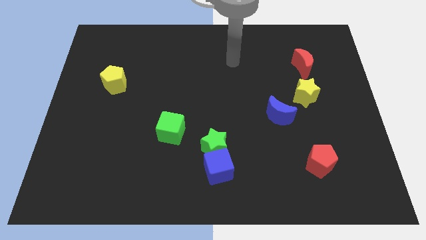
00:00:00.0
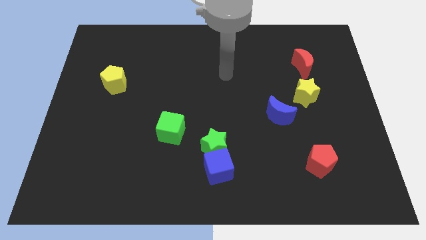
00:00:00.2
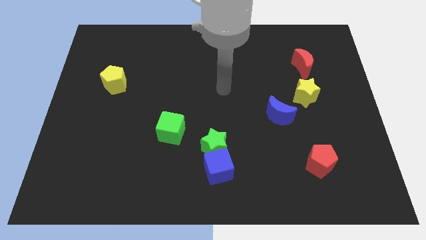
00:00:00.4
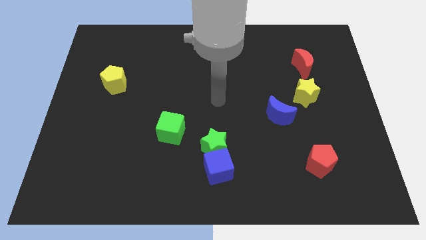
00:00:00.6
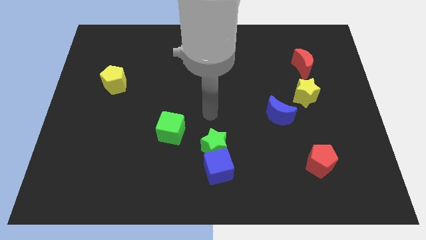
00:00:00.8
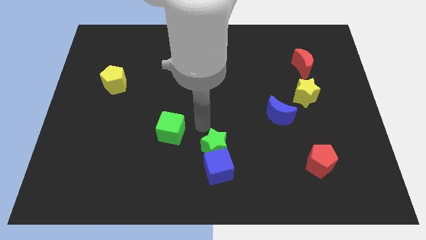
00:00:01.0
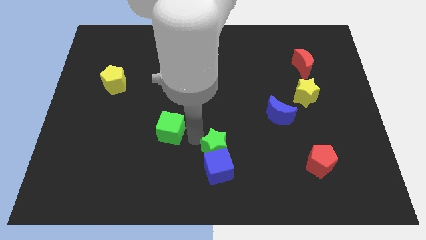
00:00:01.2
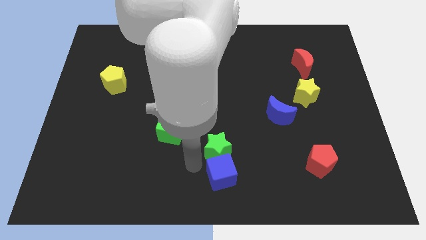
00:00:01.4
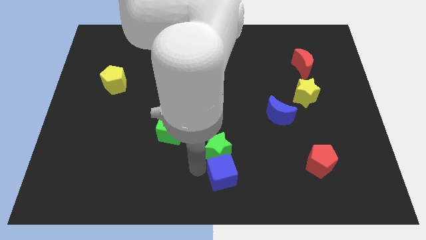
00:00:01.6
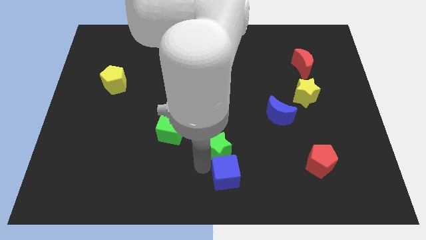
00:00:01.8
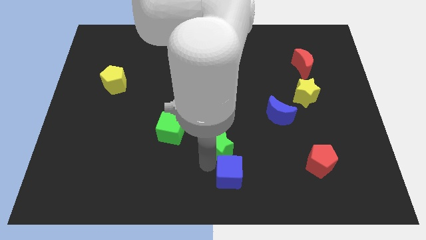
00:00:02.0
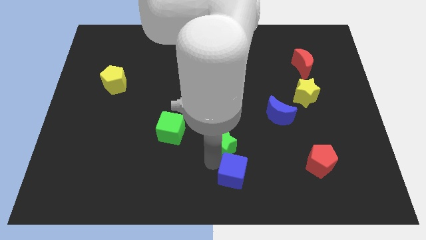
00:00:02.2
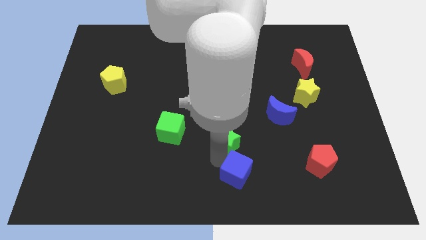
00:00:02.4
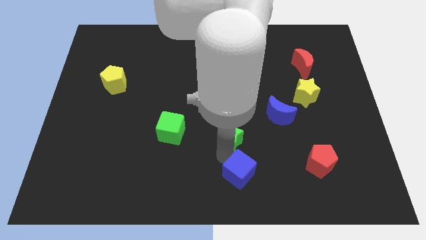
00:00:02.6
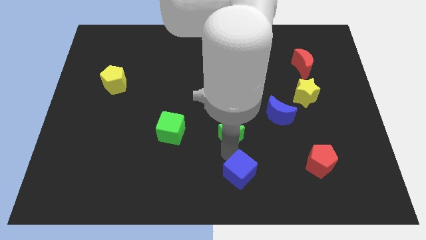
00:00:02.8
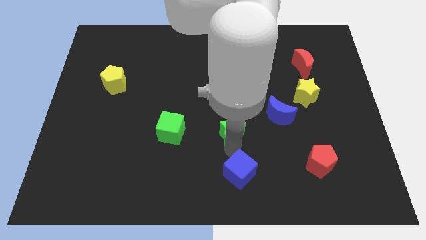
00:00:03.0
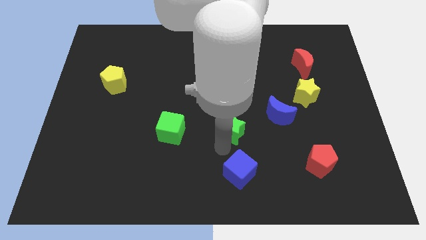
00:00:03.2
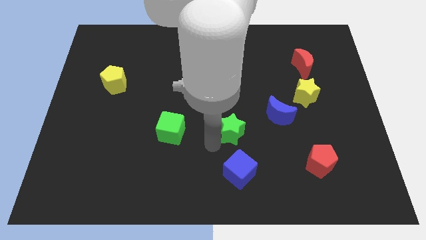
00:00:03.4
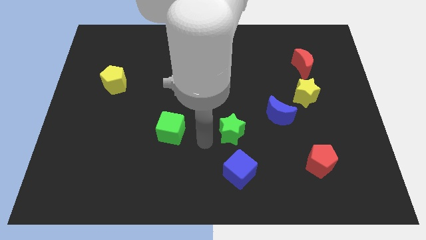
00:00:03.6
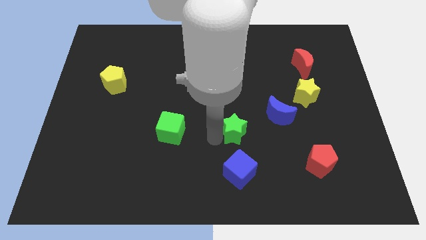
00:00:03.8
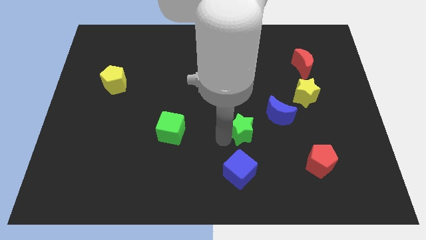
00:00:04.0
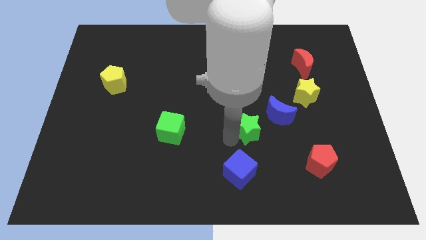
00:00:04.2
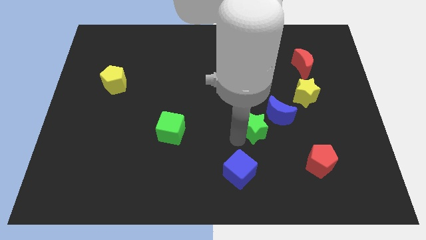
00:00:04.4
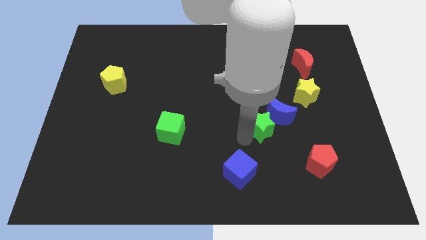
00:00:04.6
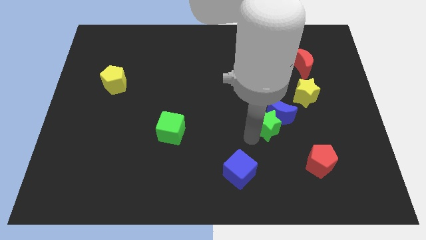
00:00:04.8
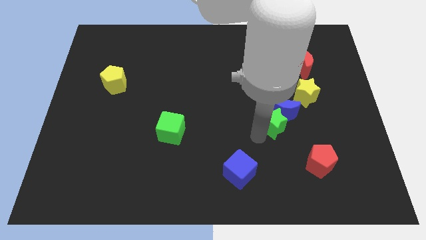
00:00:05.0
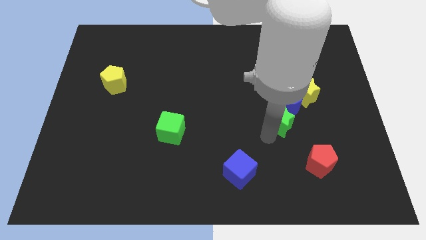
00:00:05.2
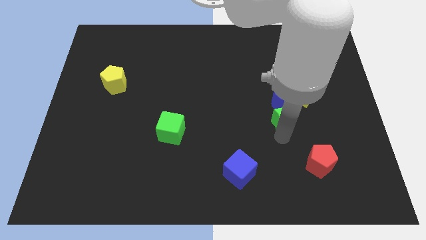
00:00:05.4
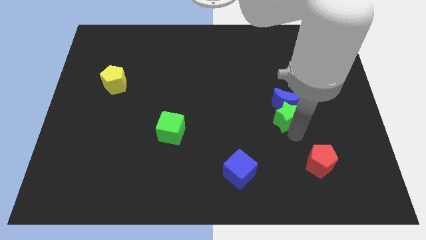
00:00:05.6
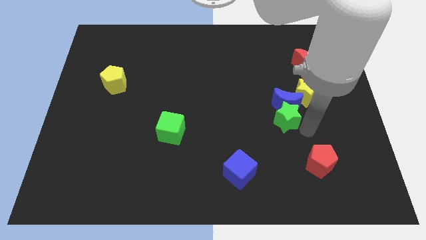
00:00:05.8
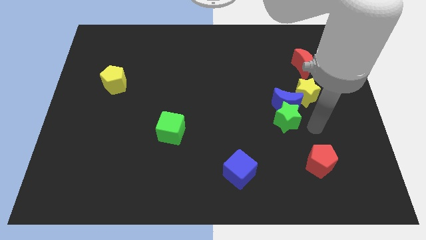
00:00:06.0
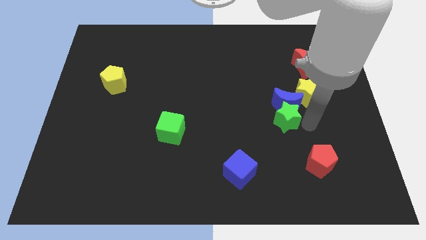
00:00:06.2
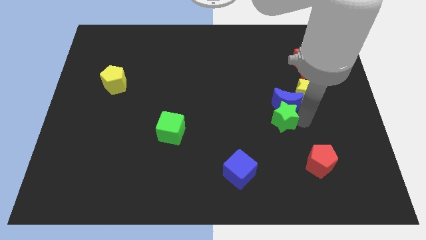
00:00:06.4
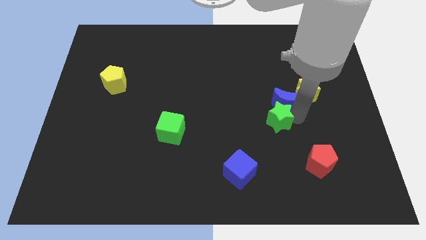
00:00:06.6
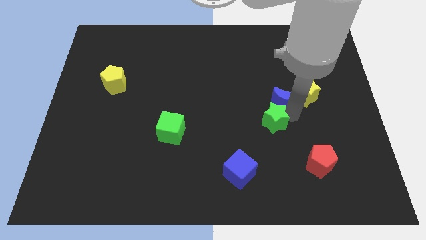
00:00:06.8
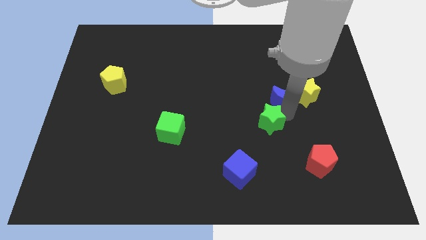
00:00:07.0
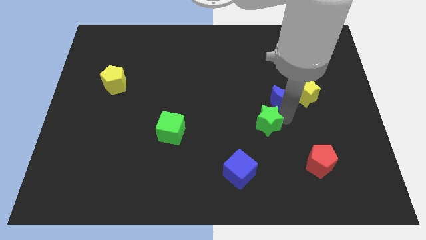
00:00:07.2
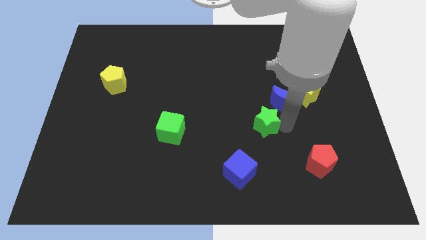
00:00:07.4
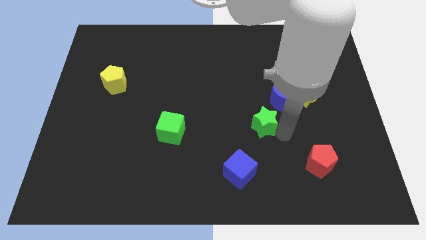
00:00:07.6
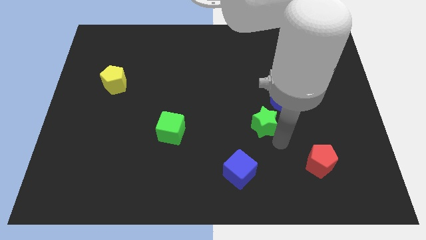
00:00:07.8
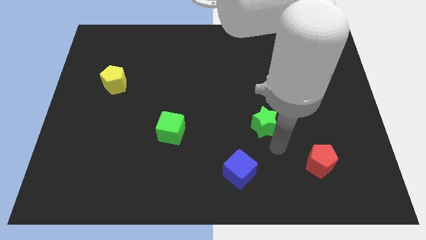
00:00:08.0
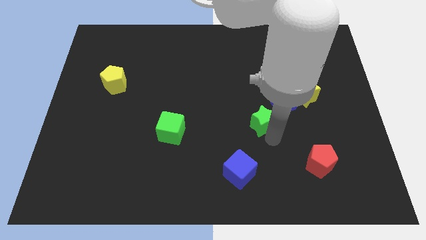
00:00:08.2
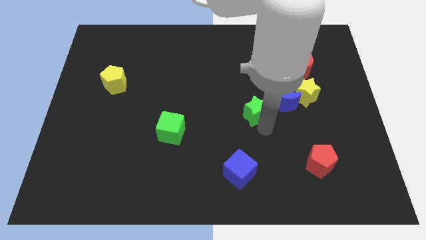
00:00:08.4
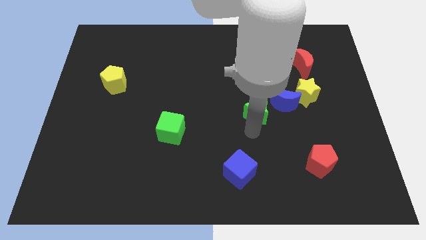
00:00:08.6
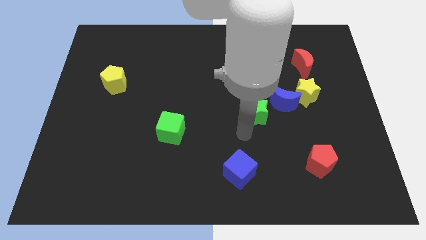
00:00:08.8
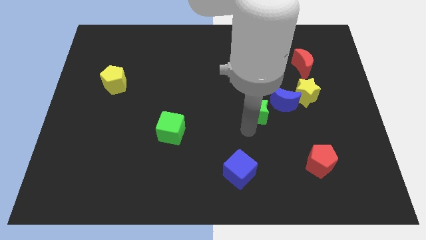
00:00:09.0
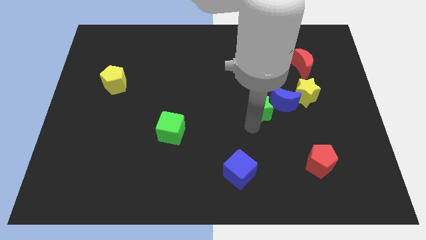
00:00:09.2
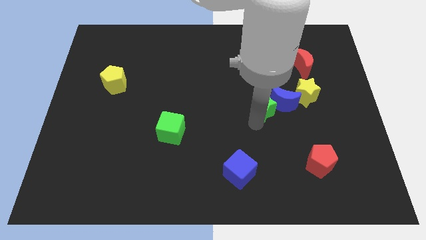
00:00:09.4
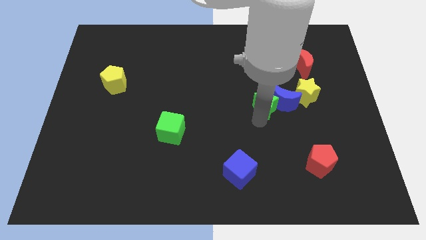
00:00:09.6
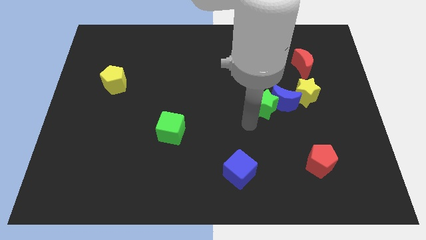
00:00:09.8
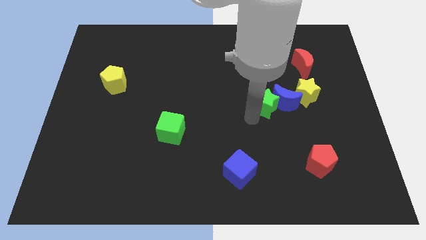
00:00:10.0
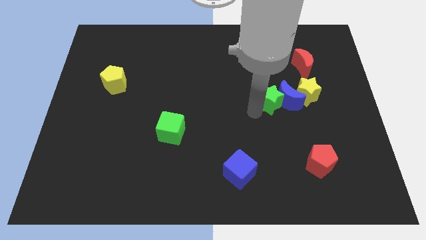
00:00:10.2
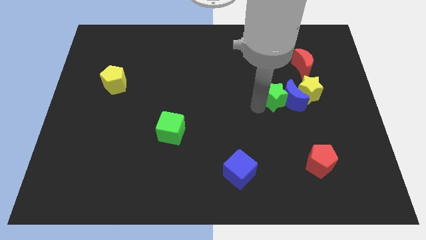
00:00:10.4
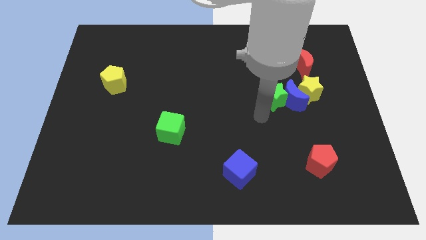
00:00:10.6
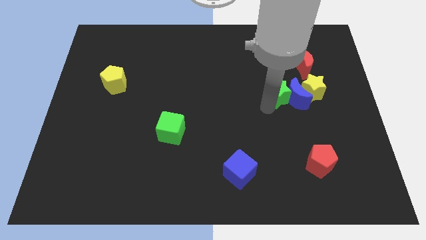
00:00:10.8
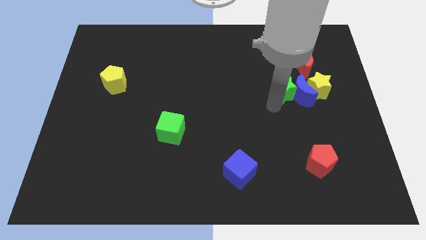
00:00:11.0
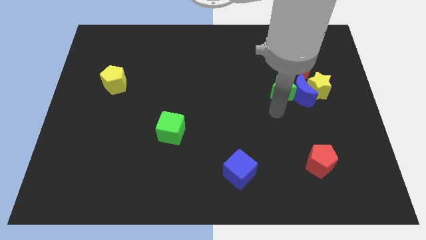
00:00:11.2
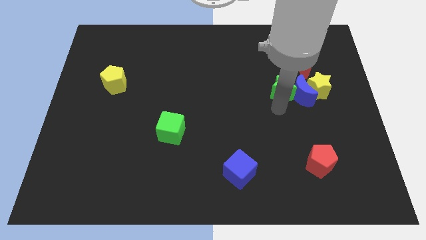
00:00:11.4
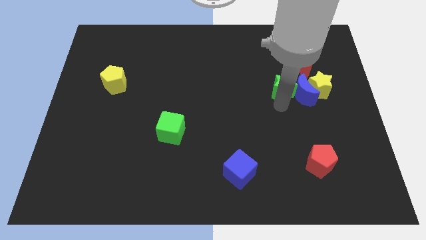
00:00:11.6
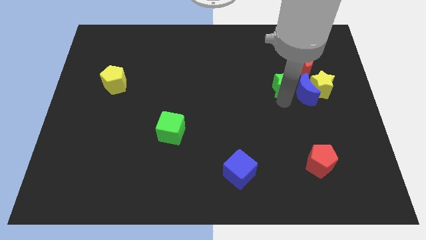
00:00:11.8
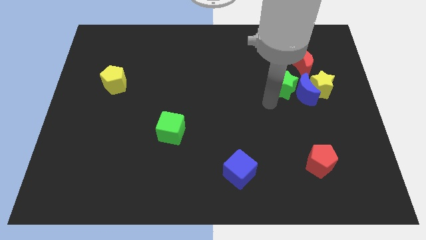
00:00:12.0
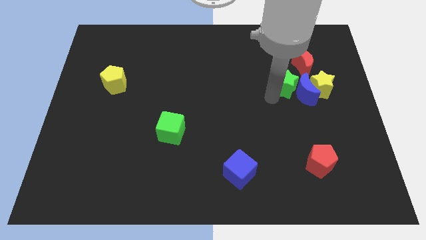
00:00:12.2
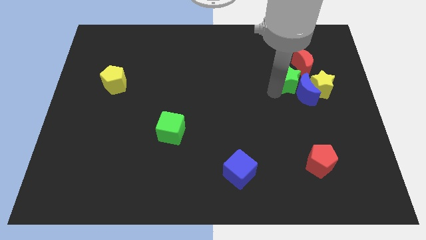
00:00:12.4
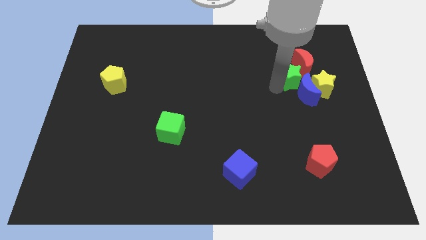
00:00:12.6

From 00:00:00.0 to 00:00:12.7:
push the green star close to the red moon

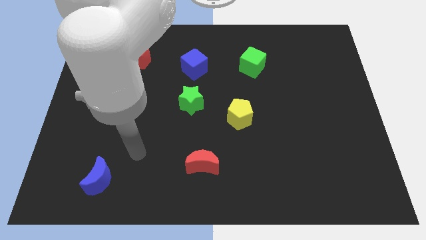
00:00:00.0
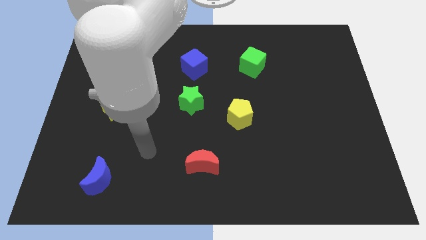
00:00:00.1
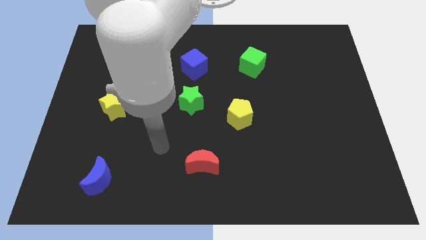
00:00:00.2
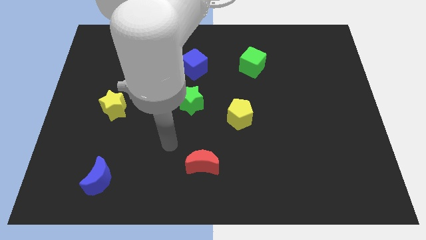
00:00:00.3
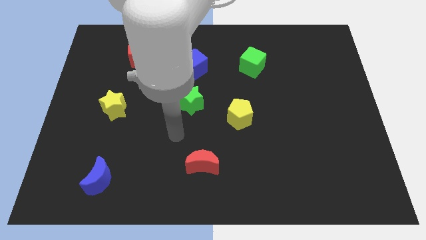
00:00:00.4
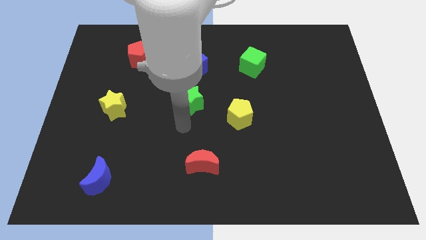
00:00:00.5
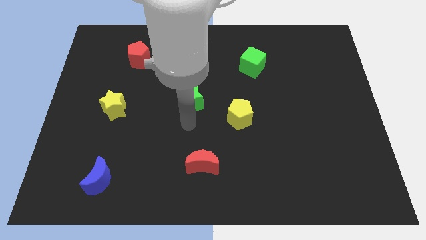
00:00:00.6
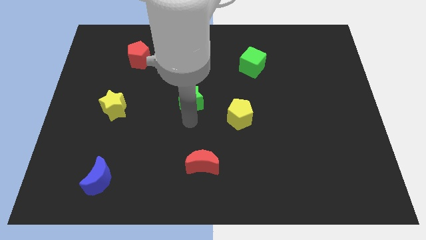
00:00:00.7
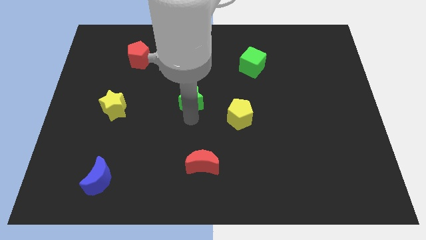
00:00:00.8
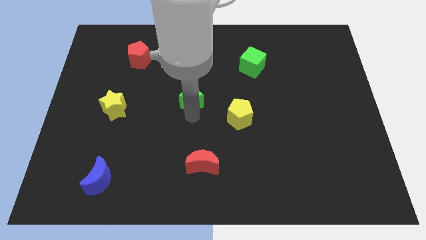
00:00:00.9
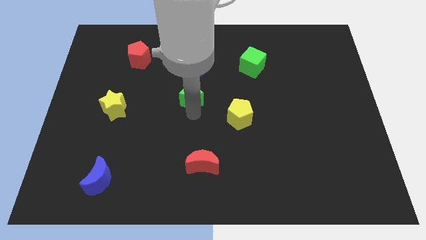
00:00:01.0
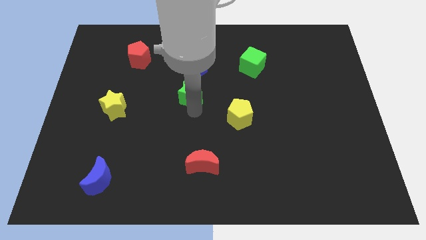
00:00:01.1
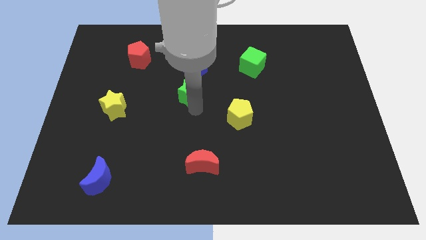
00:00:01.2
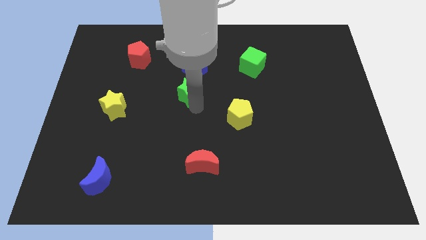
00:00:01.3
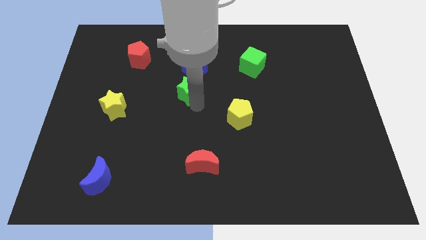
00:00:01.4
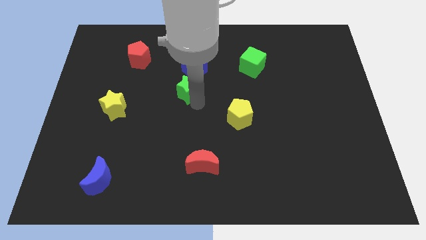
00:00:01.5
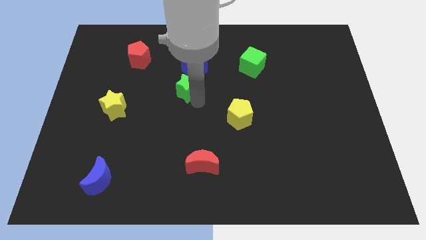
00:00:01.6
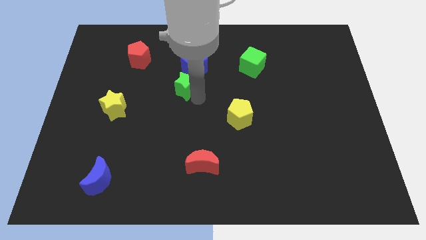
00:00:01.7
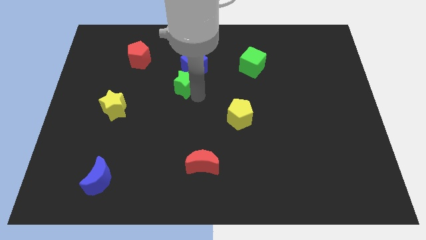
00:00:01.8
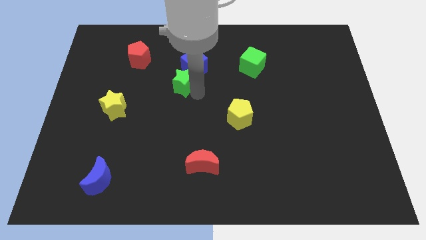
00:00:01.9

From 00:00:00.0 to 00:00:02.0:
push the green star towards the blue cube
